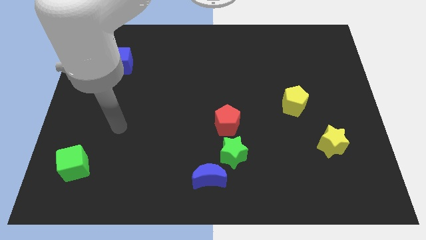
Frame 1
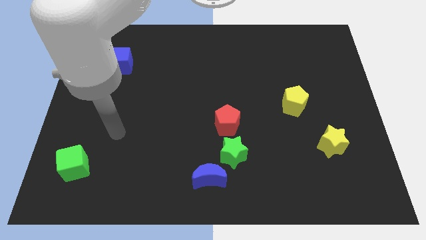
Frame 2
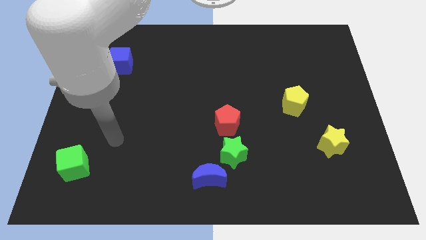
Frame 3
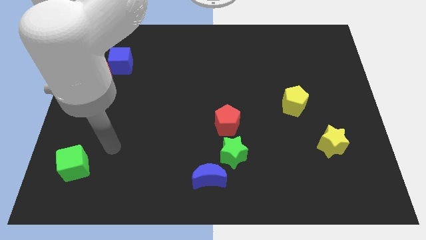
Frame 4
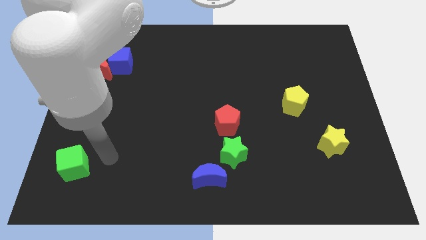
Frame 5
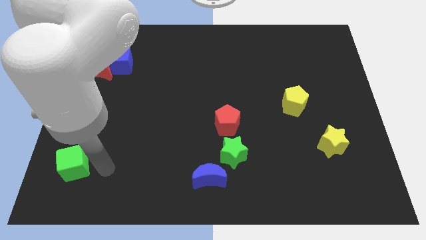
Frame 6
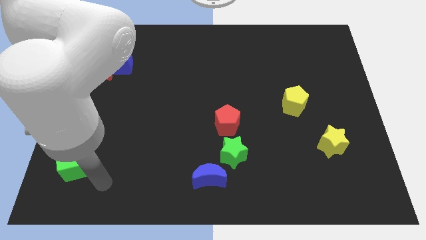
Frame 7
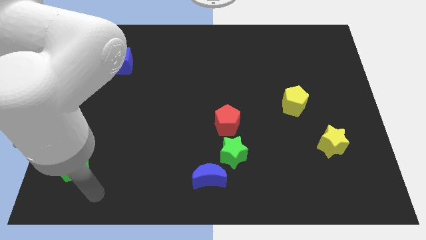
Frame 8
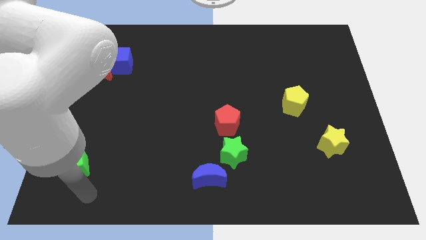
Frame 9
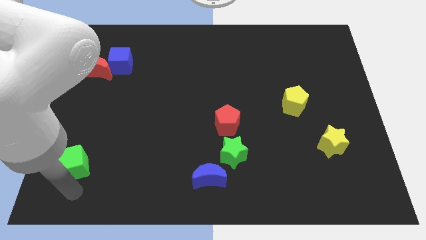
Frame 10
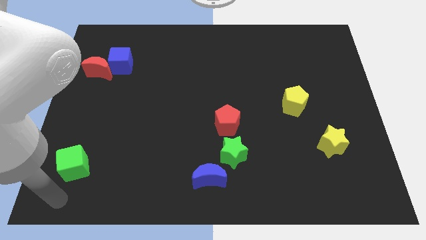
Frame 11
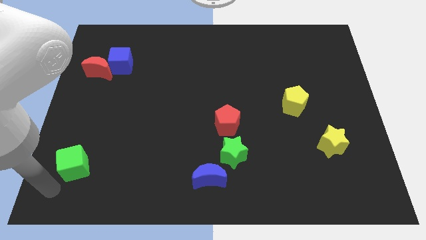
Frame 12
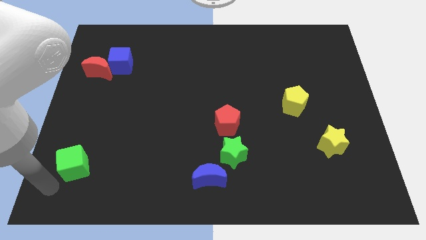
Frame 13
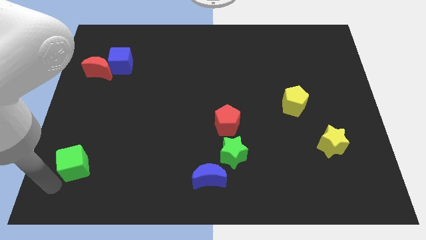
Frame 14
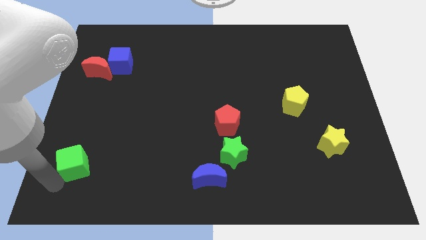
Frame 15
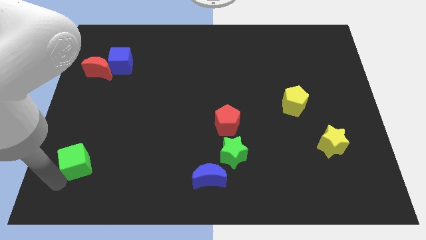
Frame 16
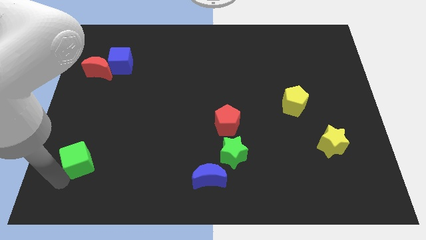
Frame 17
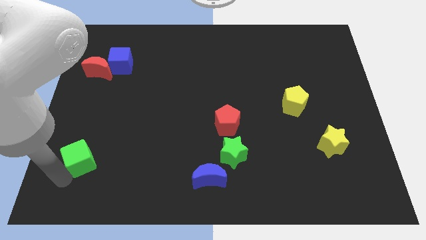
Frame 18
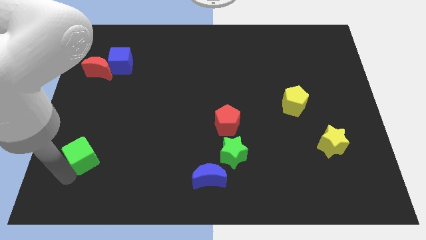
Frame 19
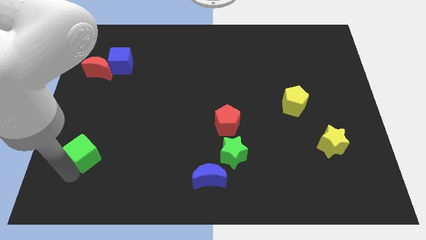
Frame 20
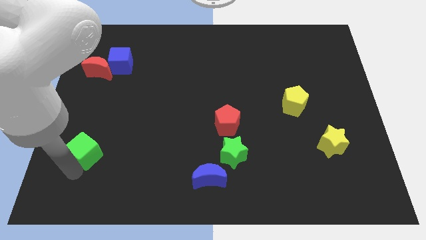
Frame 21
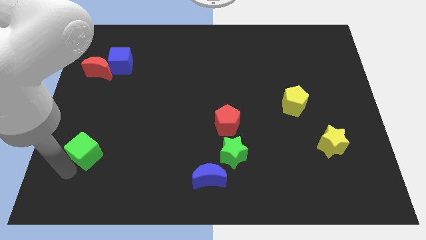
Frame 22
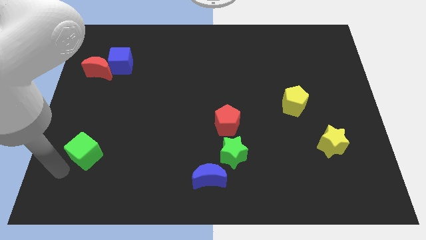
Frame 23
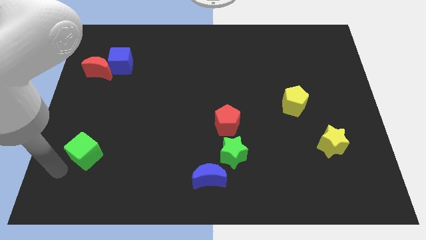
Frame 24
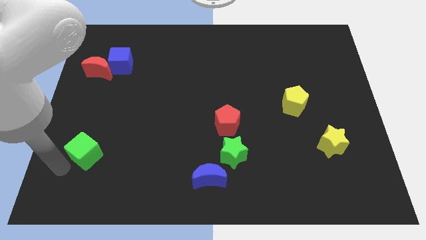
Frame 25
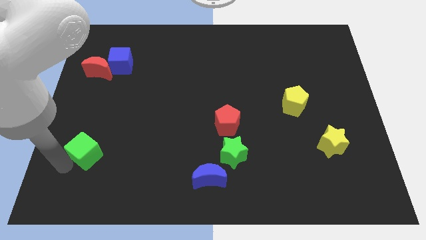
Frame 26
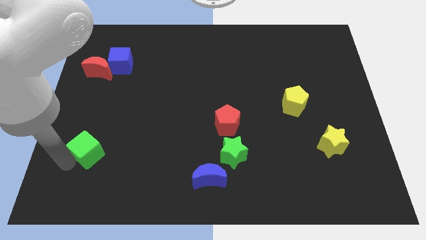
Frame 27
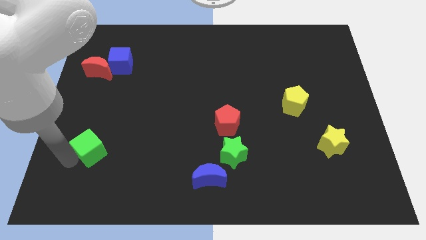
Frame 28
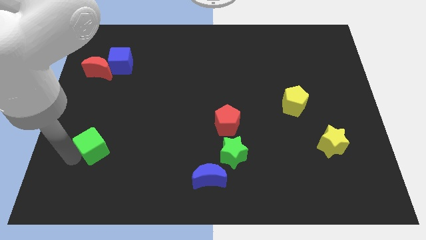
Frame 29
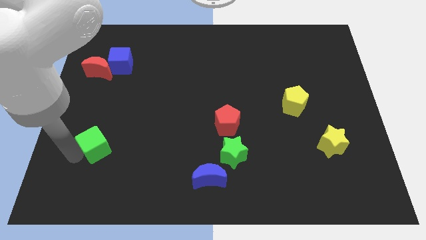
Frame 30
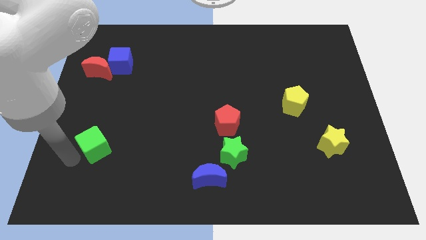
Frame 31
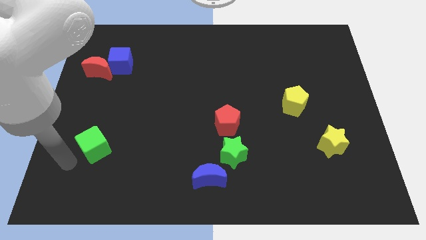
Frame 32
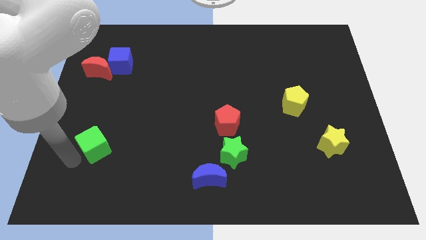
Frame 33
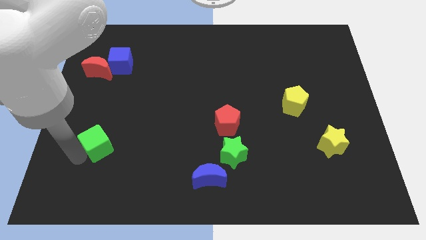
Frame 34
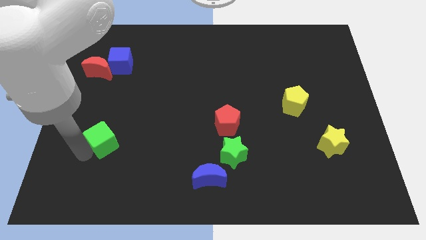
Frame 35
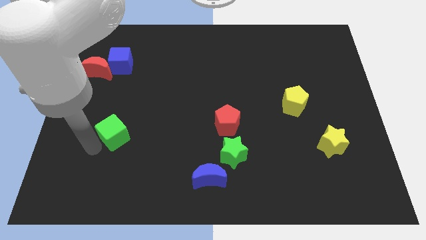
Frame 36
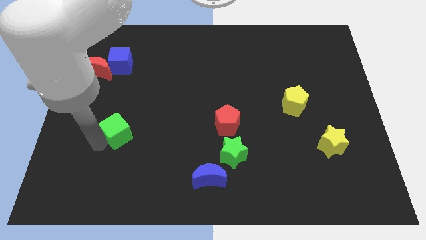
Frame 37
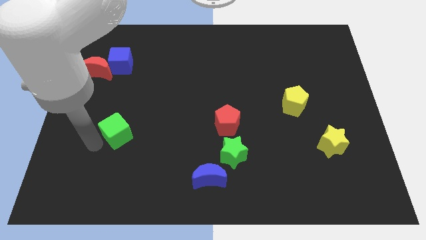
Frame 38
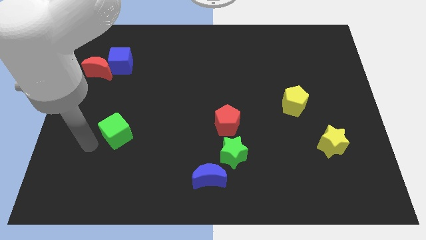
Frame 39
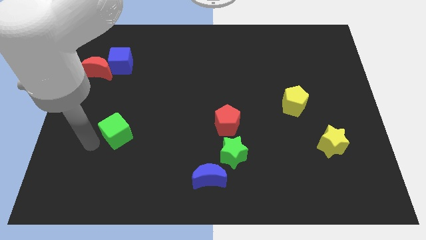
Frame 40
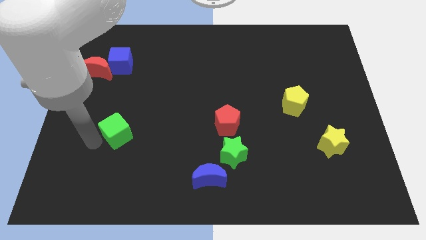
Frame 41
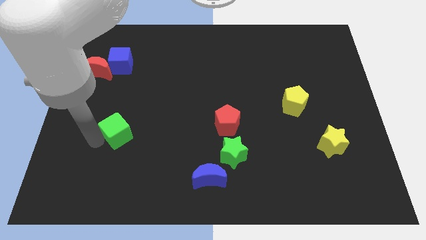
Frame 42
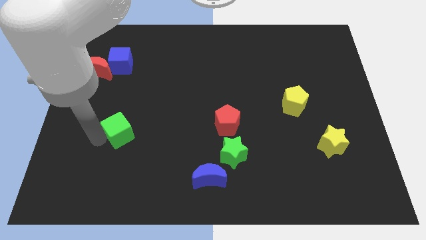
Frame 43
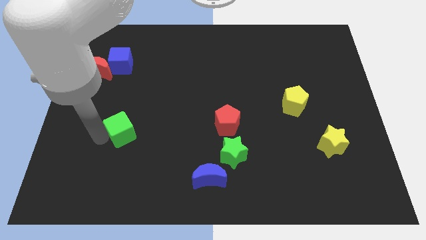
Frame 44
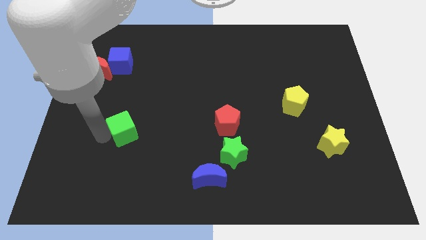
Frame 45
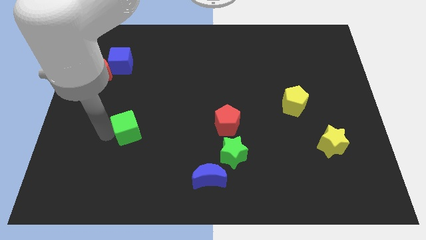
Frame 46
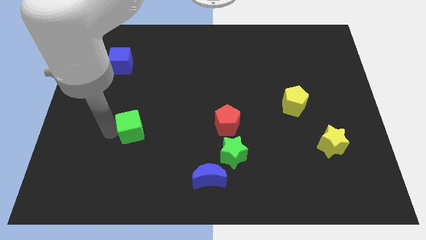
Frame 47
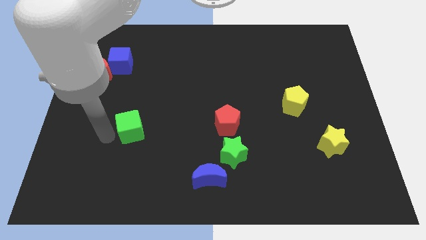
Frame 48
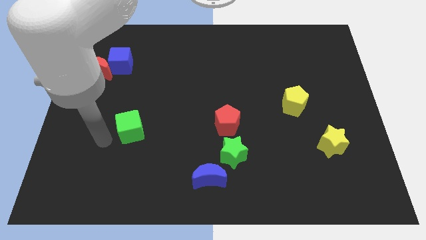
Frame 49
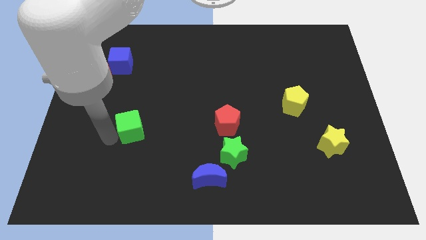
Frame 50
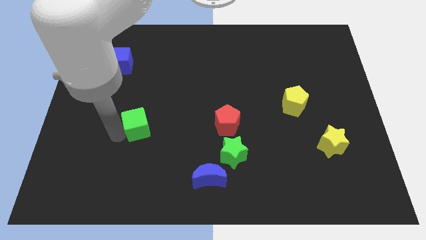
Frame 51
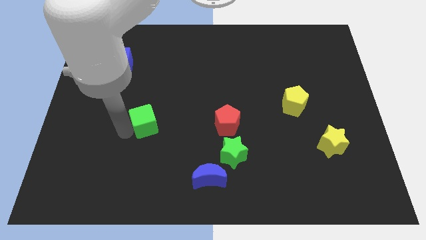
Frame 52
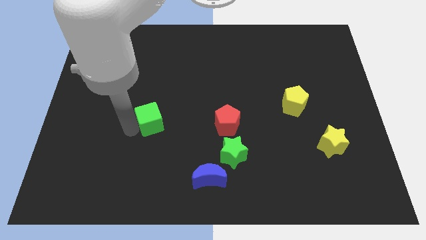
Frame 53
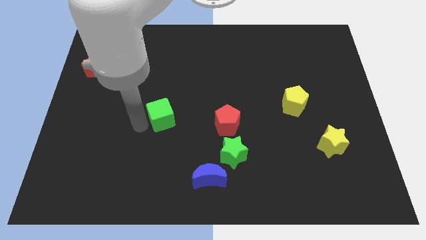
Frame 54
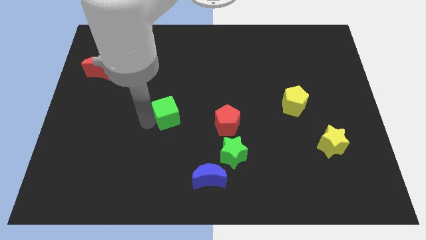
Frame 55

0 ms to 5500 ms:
move the green cube to the middle of the board

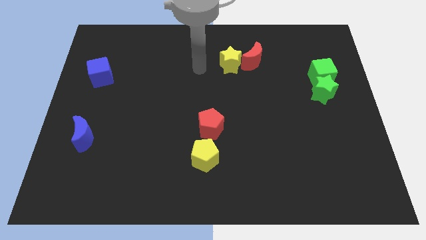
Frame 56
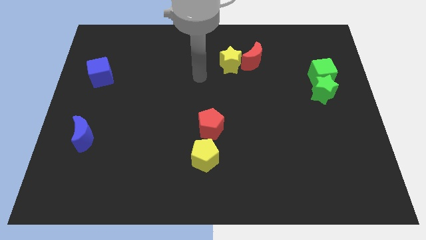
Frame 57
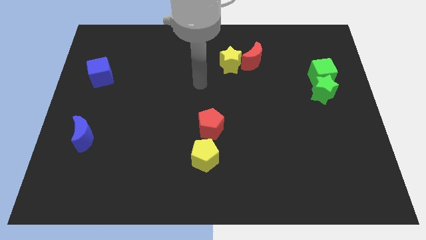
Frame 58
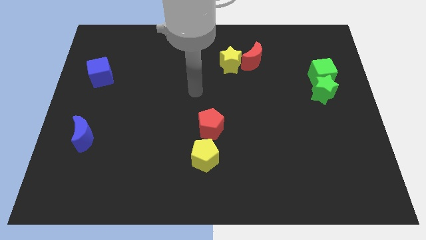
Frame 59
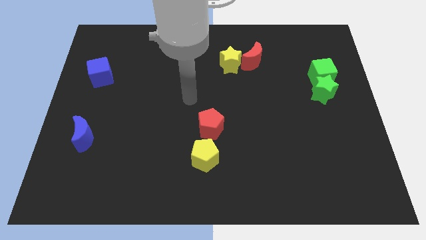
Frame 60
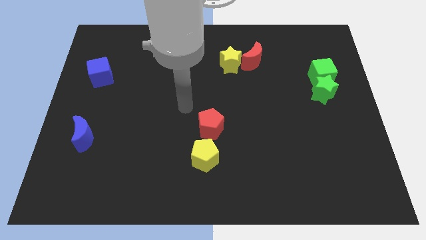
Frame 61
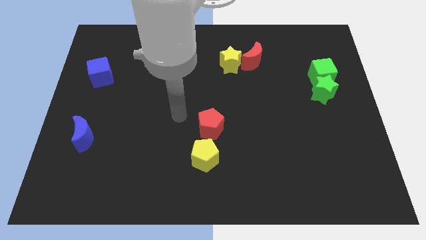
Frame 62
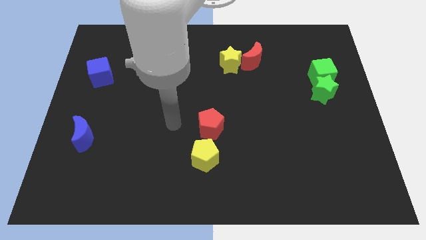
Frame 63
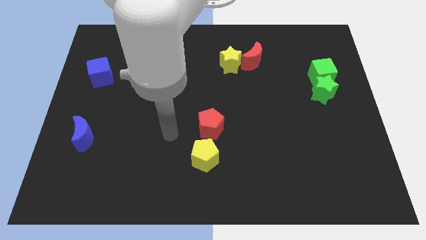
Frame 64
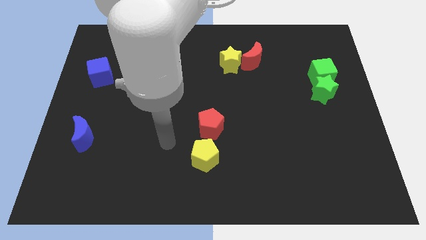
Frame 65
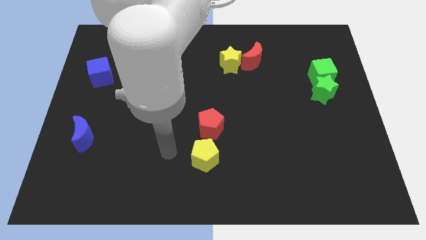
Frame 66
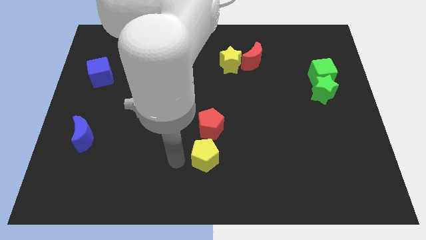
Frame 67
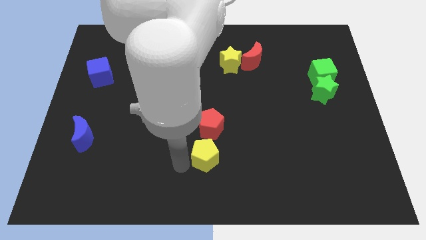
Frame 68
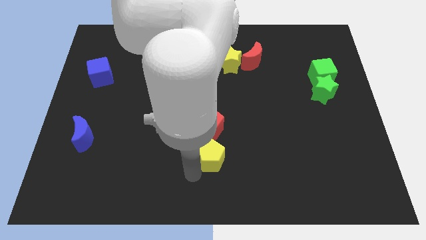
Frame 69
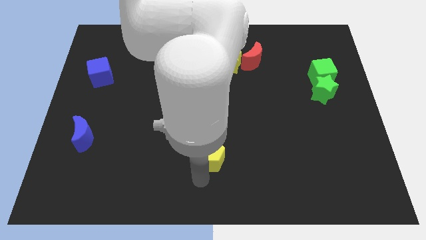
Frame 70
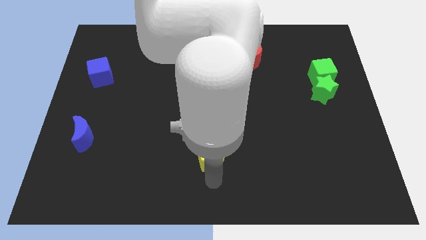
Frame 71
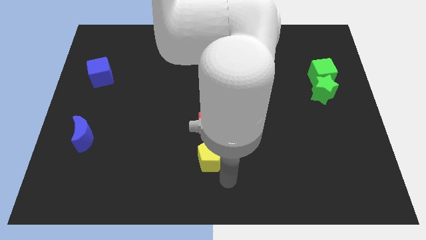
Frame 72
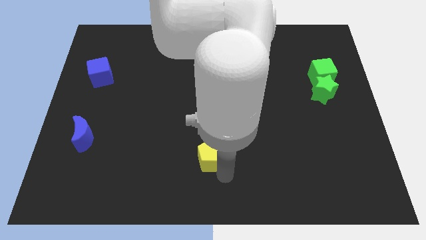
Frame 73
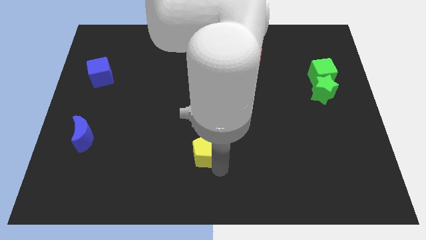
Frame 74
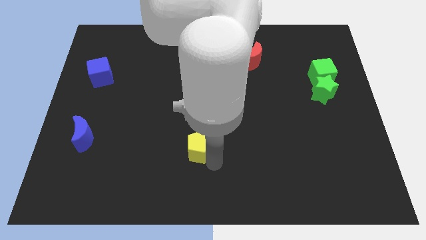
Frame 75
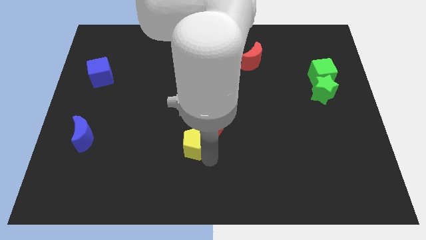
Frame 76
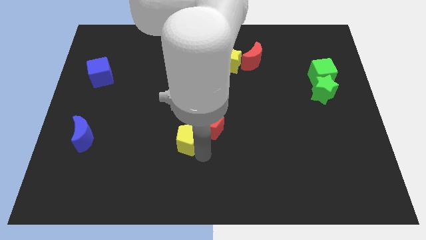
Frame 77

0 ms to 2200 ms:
put the yellow pentagon to the center
